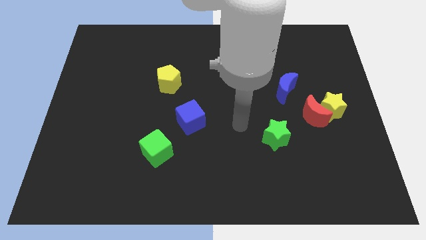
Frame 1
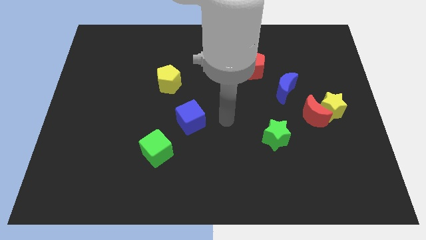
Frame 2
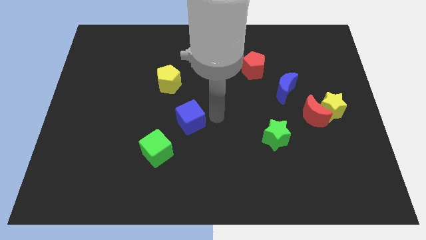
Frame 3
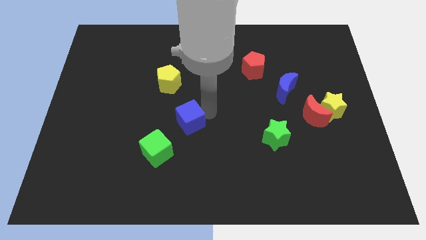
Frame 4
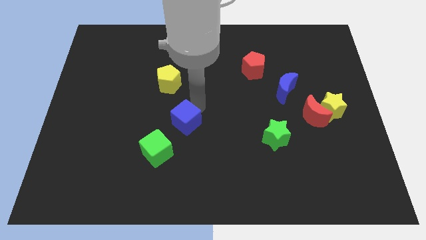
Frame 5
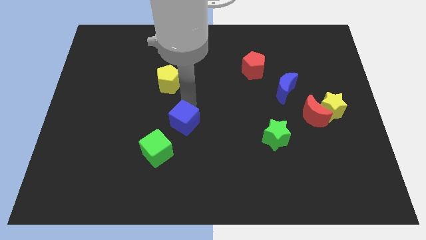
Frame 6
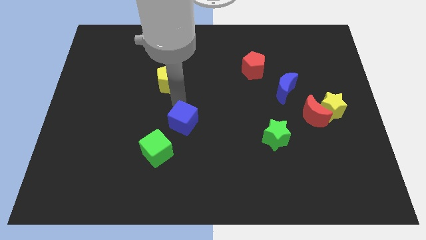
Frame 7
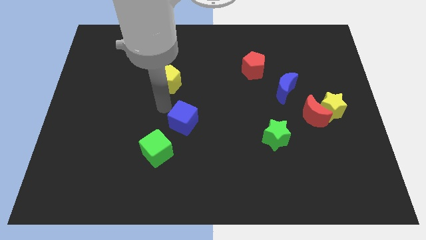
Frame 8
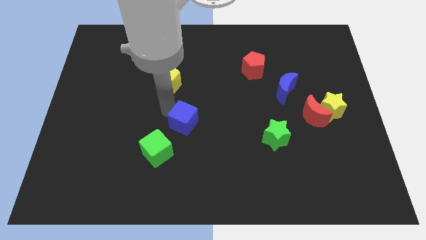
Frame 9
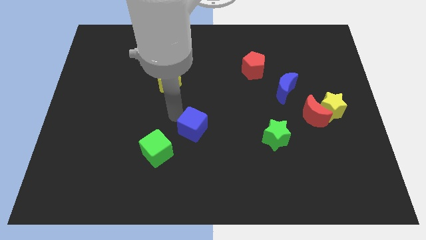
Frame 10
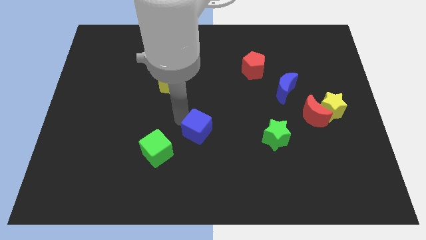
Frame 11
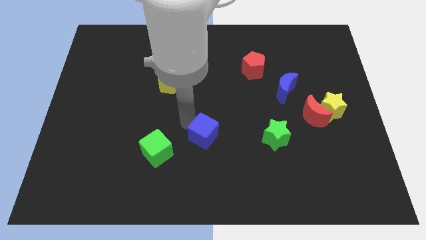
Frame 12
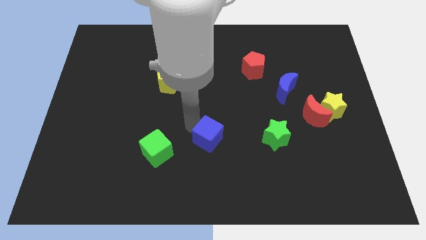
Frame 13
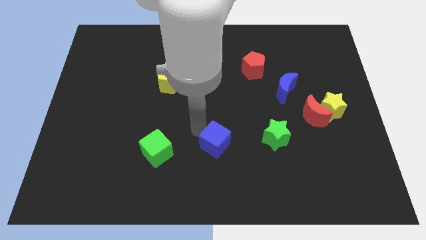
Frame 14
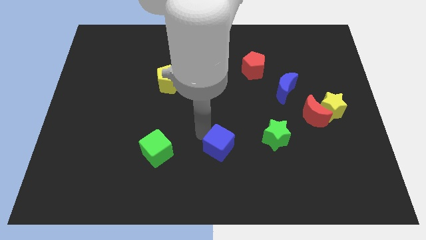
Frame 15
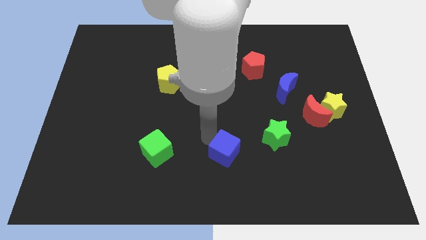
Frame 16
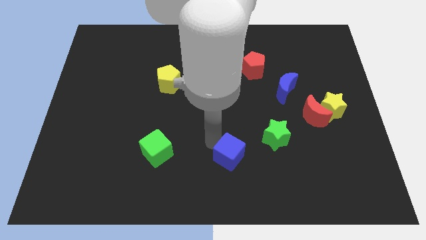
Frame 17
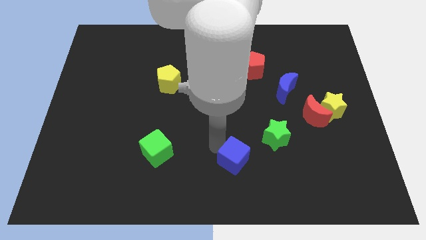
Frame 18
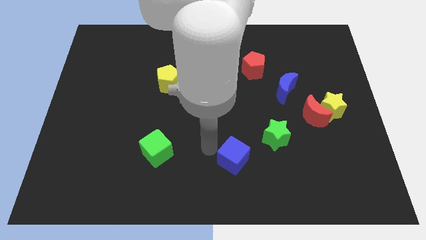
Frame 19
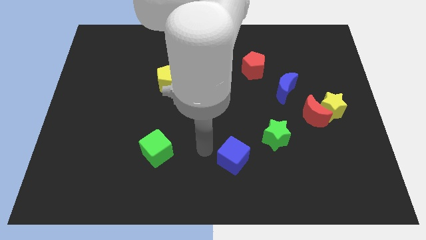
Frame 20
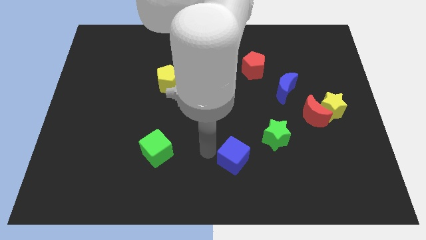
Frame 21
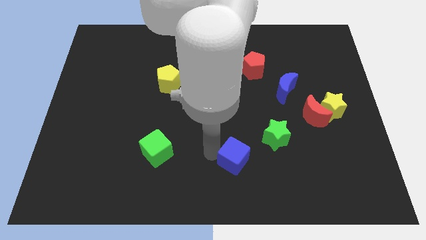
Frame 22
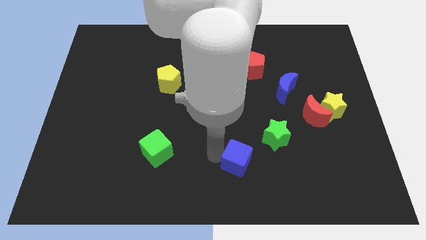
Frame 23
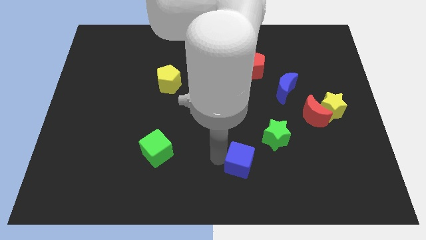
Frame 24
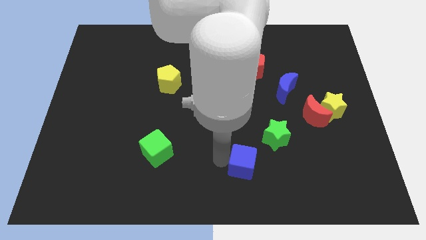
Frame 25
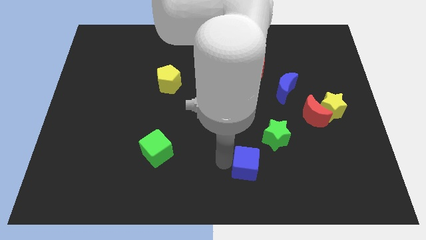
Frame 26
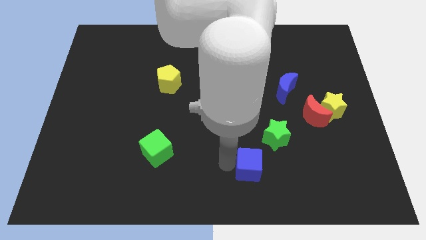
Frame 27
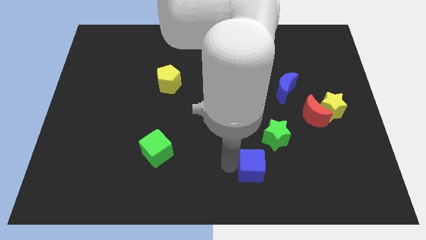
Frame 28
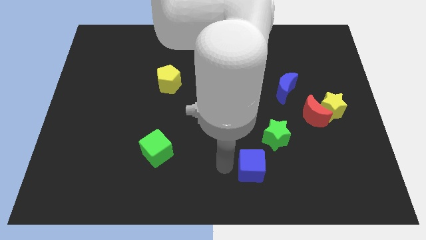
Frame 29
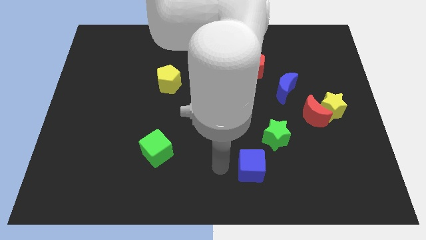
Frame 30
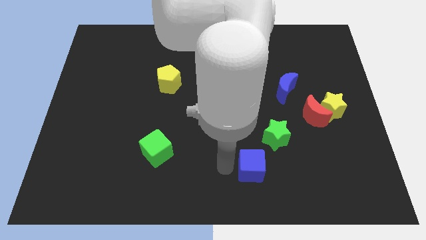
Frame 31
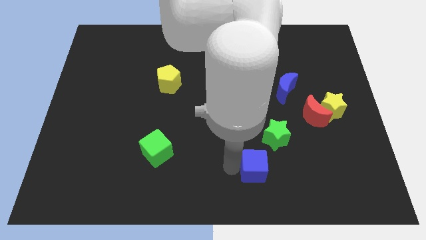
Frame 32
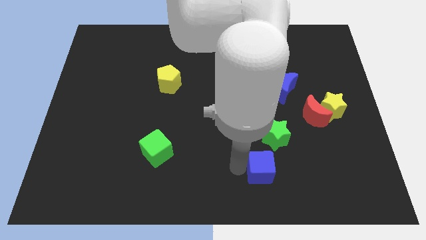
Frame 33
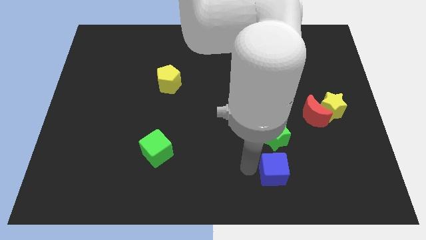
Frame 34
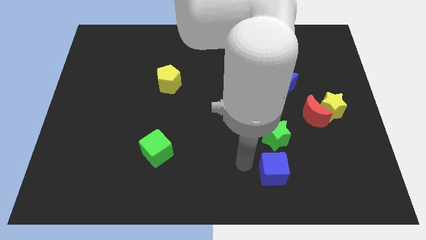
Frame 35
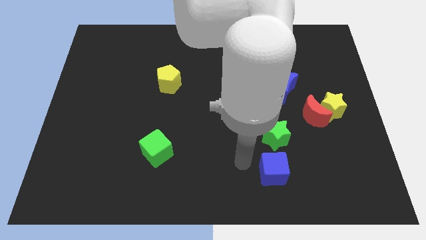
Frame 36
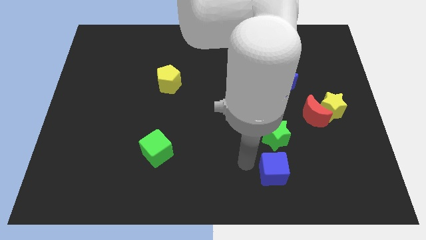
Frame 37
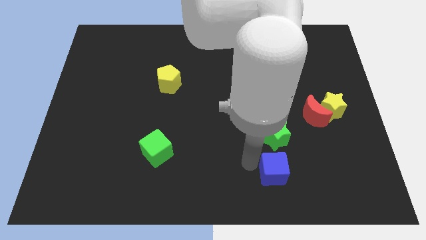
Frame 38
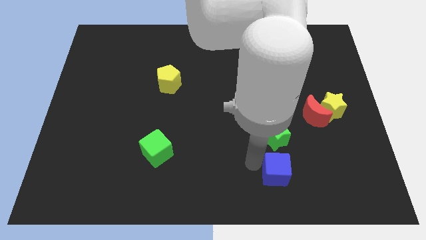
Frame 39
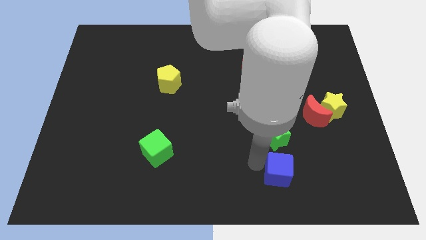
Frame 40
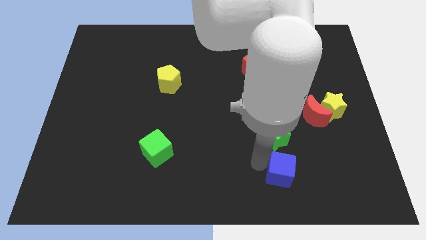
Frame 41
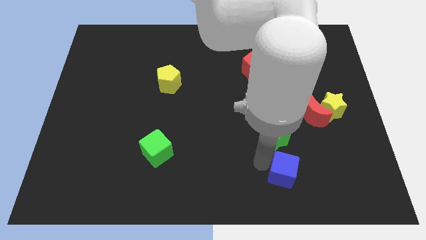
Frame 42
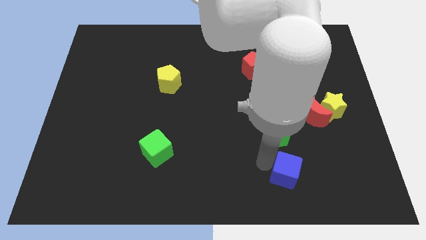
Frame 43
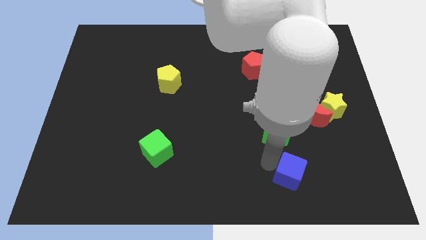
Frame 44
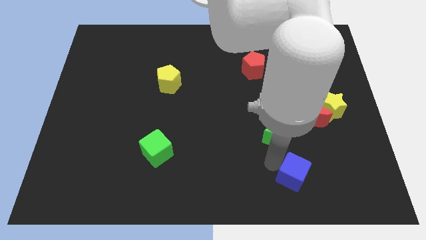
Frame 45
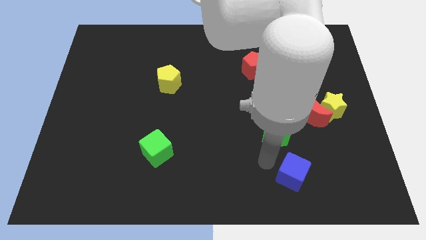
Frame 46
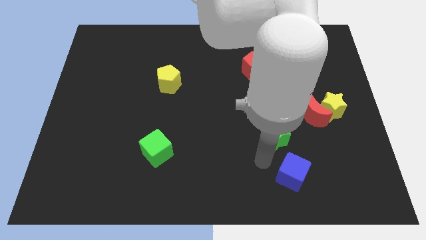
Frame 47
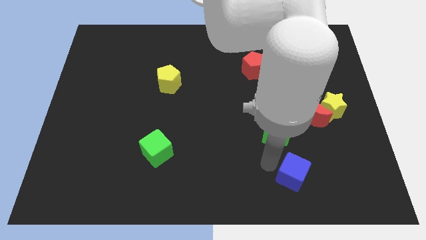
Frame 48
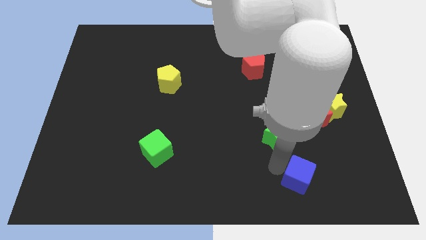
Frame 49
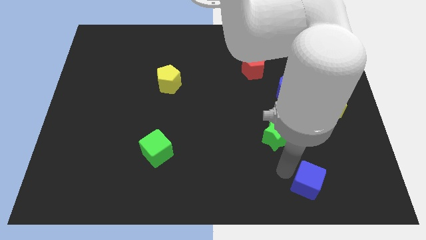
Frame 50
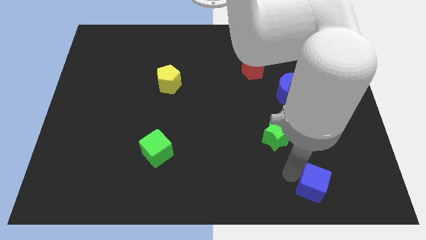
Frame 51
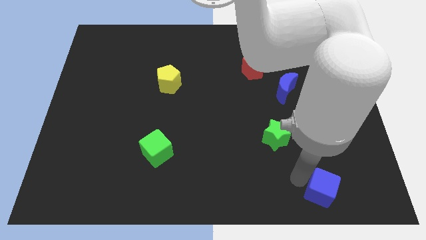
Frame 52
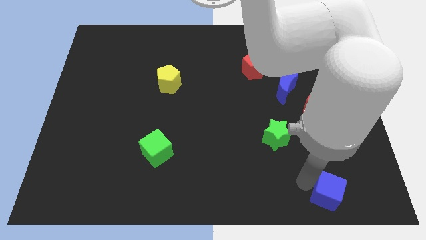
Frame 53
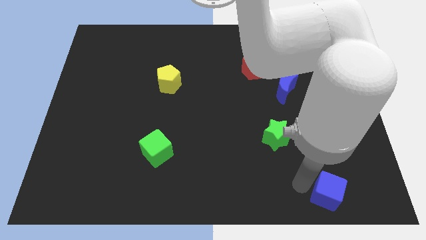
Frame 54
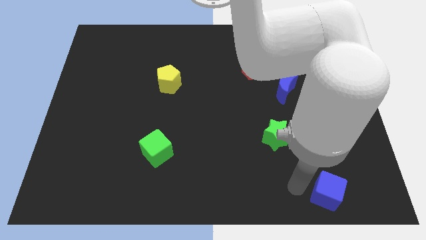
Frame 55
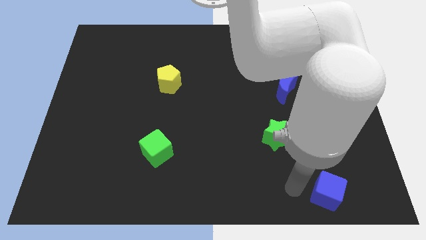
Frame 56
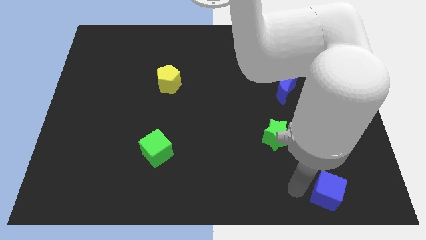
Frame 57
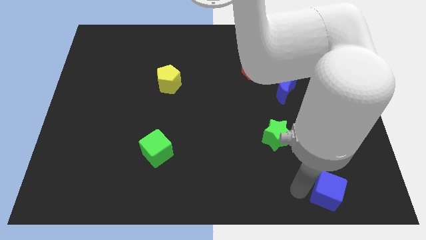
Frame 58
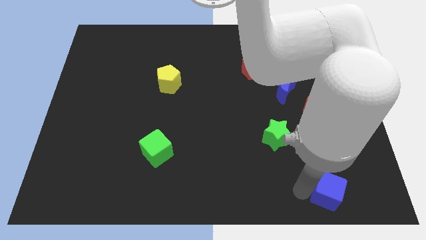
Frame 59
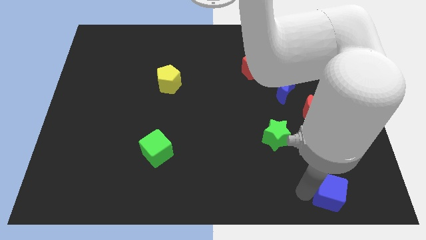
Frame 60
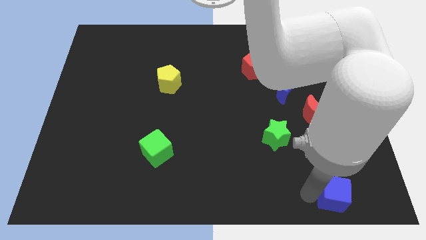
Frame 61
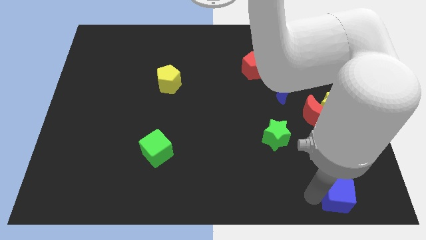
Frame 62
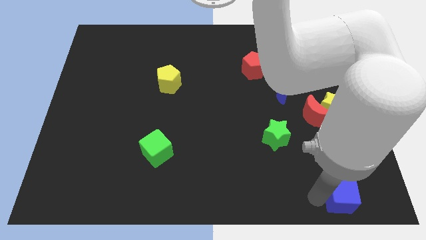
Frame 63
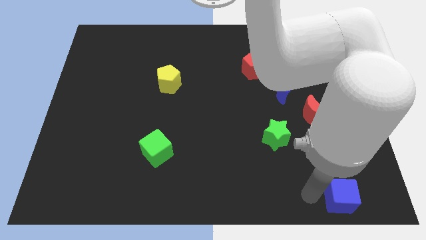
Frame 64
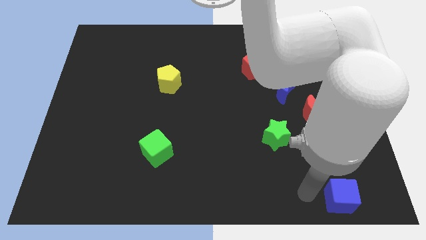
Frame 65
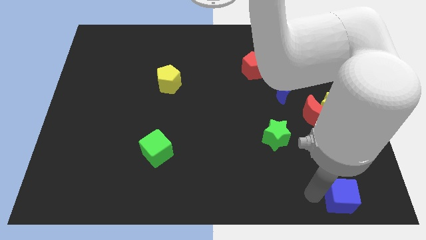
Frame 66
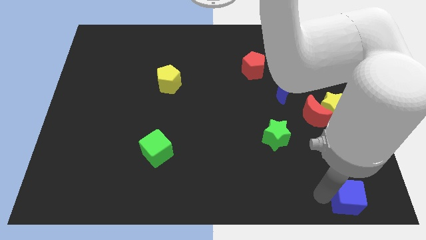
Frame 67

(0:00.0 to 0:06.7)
move the blue cube to the bottom right corner

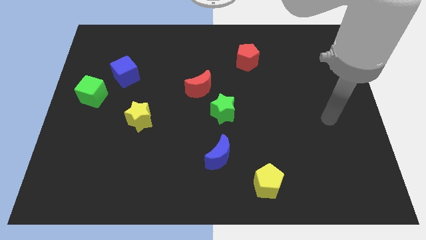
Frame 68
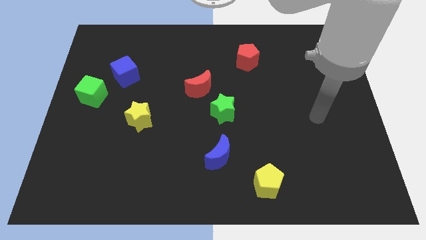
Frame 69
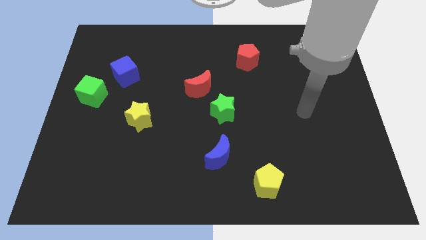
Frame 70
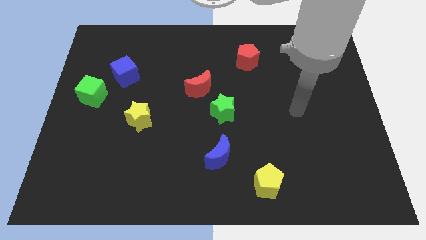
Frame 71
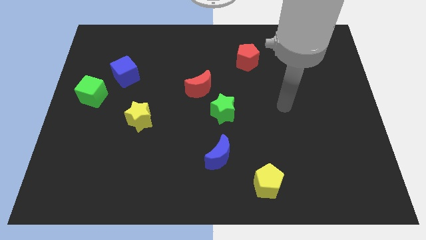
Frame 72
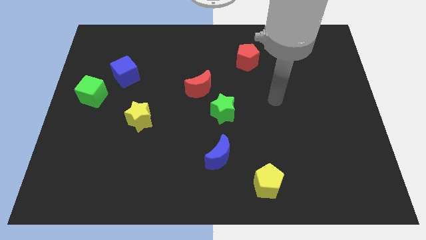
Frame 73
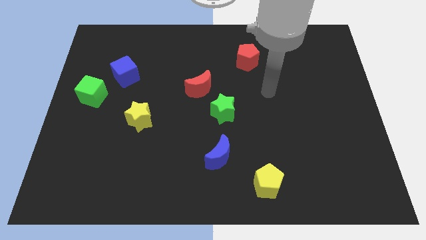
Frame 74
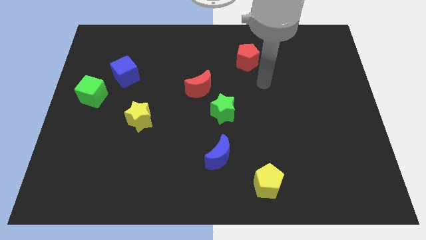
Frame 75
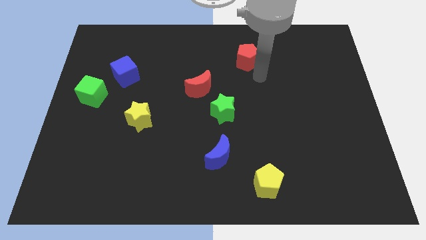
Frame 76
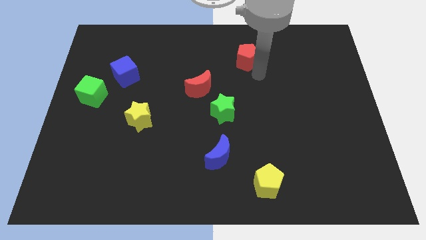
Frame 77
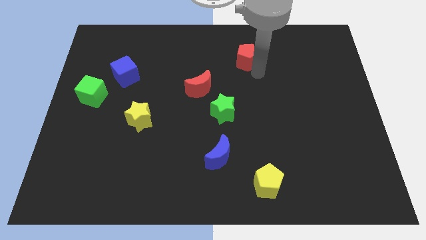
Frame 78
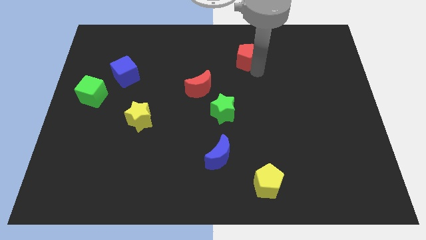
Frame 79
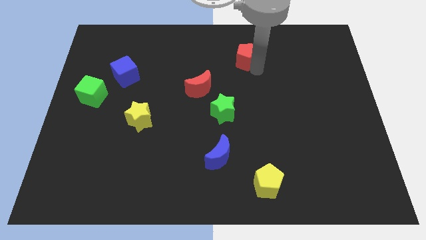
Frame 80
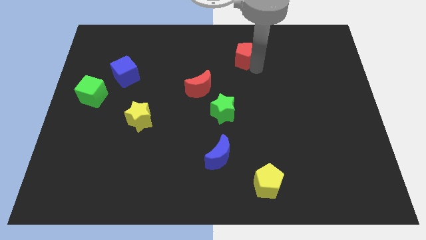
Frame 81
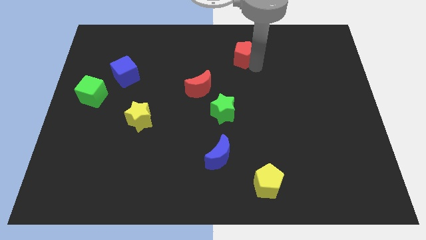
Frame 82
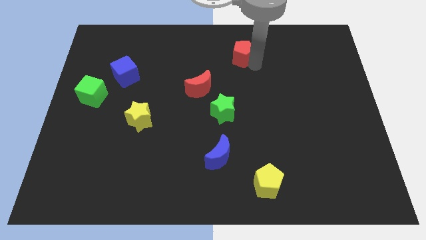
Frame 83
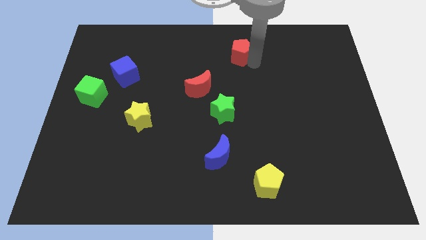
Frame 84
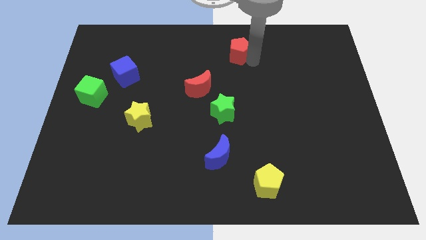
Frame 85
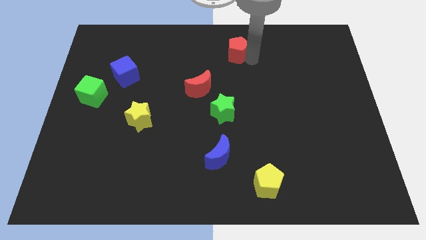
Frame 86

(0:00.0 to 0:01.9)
move the red pentagon to the towards your base
